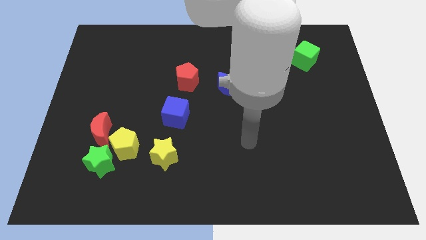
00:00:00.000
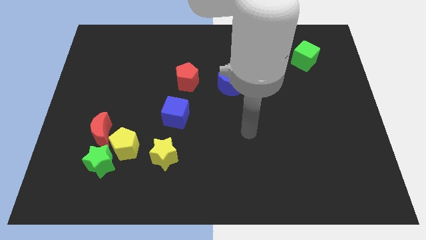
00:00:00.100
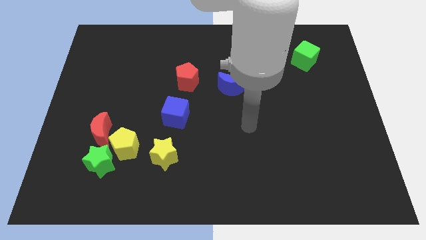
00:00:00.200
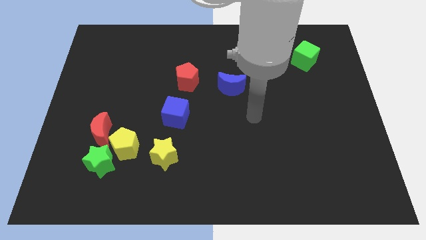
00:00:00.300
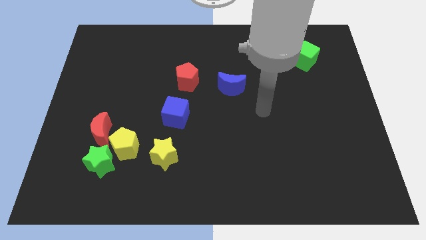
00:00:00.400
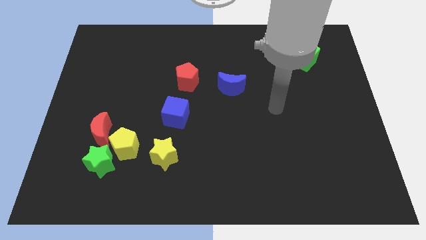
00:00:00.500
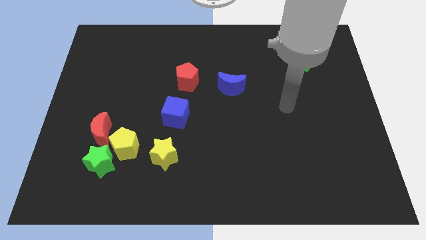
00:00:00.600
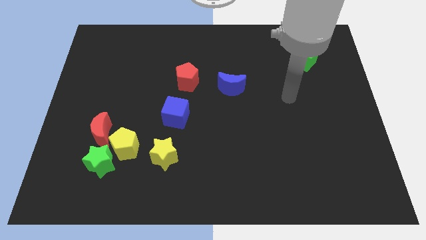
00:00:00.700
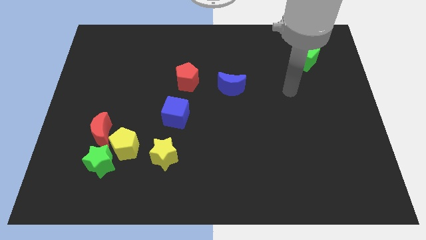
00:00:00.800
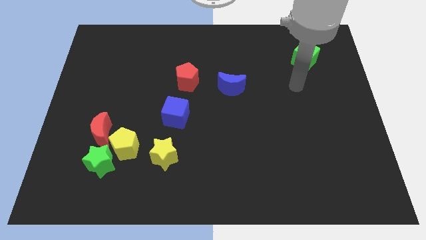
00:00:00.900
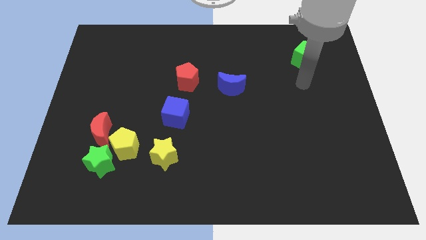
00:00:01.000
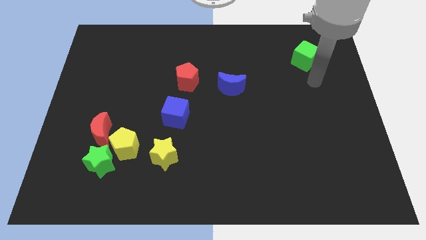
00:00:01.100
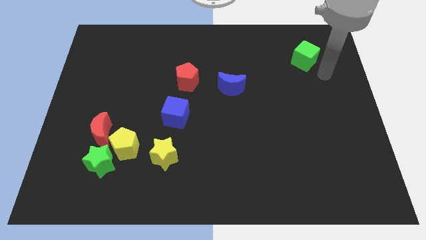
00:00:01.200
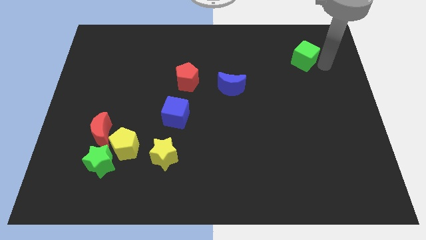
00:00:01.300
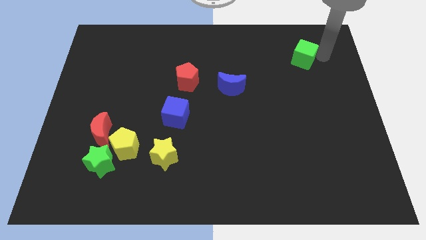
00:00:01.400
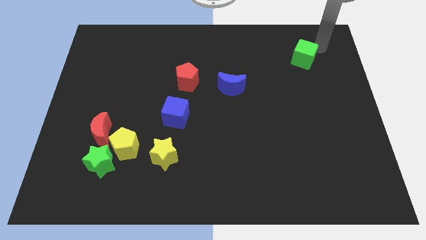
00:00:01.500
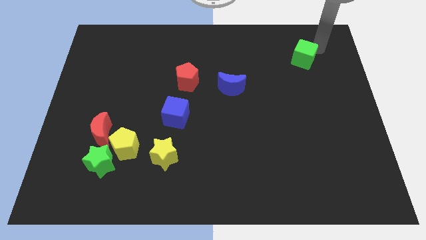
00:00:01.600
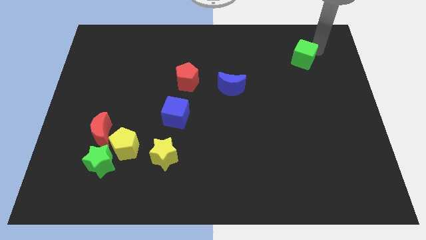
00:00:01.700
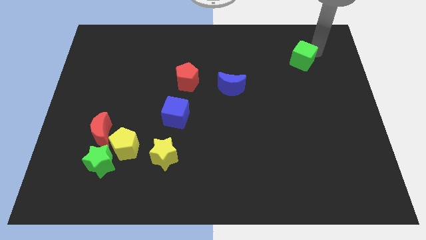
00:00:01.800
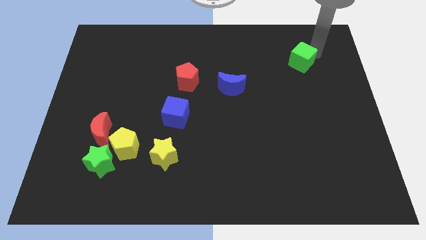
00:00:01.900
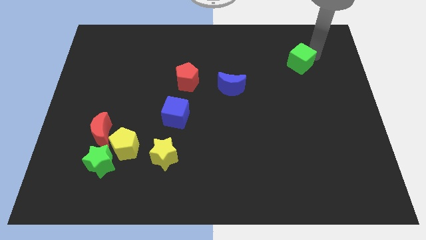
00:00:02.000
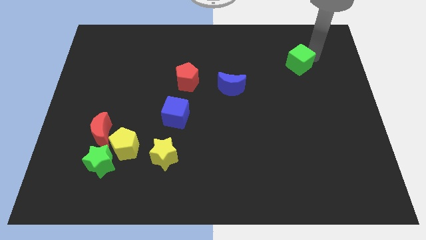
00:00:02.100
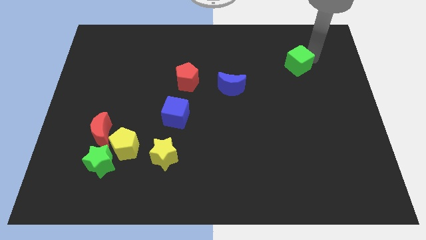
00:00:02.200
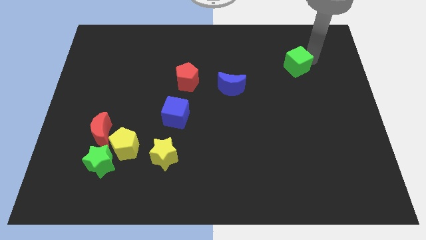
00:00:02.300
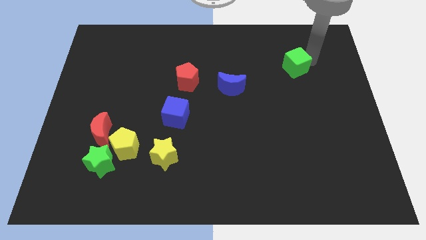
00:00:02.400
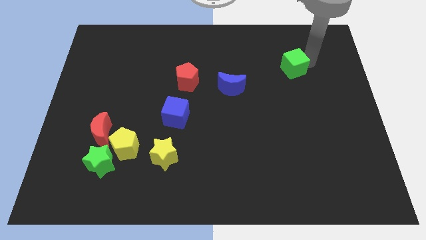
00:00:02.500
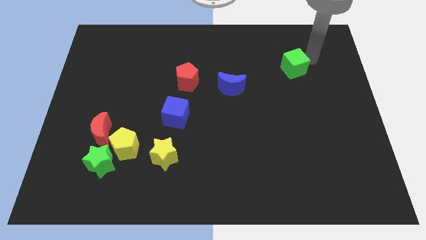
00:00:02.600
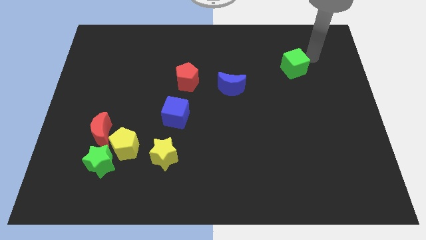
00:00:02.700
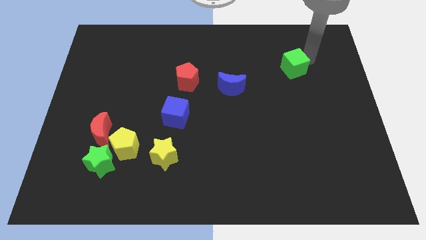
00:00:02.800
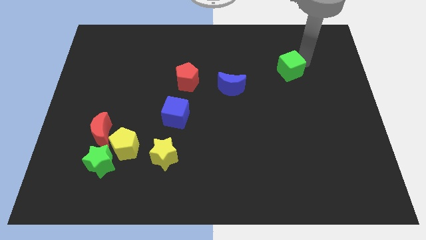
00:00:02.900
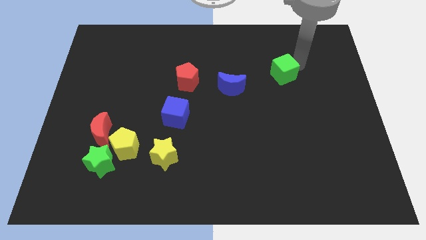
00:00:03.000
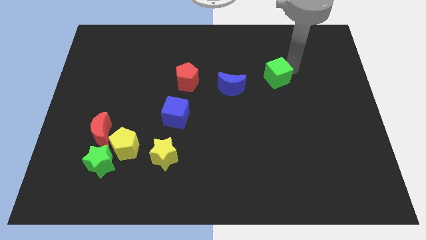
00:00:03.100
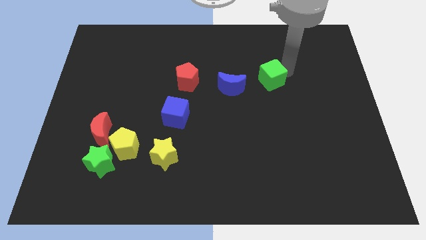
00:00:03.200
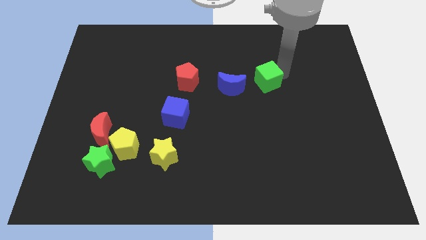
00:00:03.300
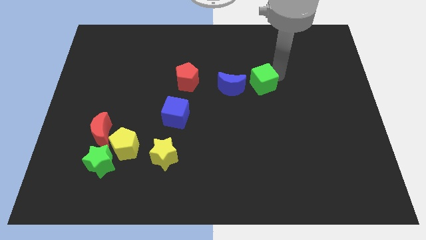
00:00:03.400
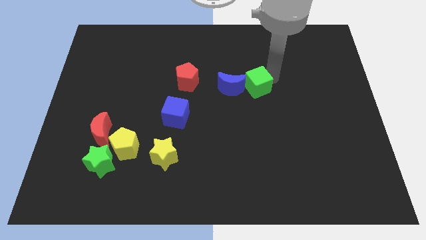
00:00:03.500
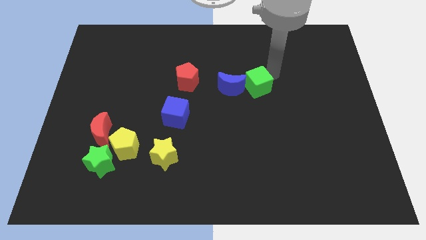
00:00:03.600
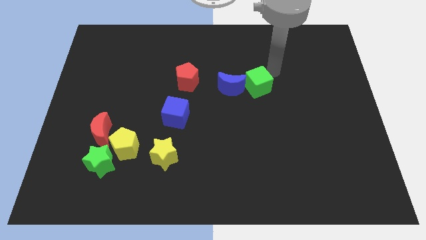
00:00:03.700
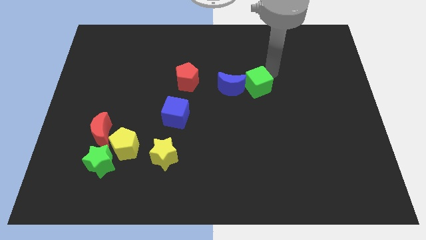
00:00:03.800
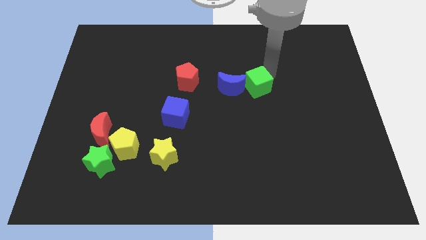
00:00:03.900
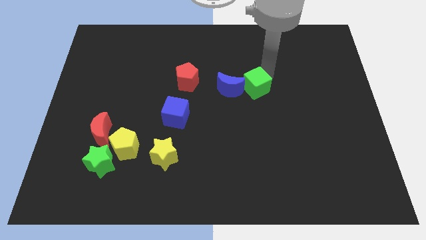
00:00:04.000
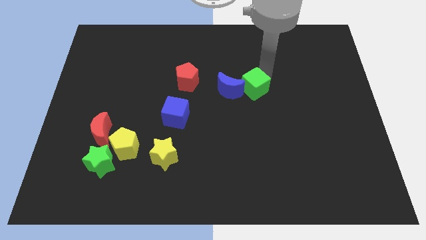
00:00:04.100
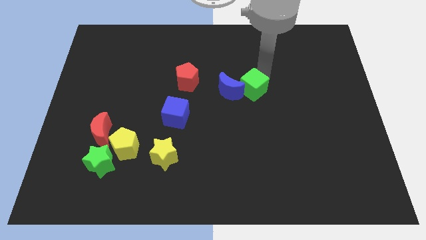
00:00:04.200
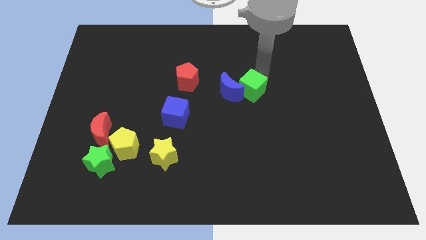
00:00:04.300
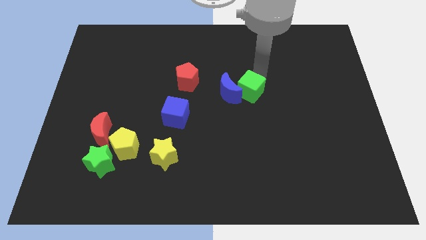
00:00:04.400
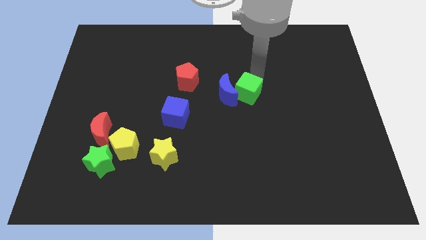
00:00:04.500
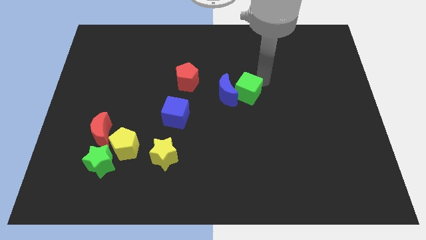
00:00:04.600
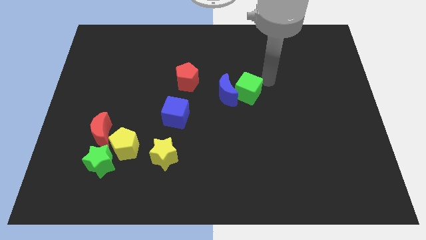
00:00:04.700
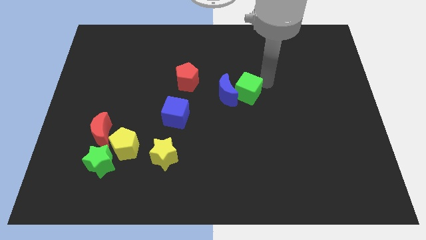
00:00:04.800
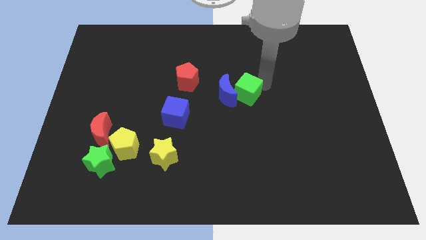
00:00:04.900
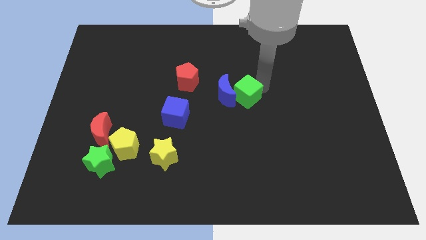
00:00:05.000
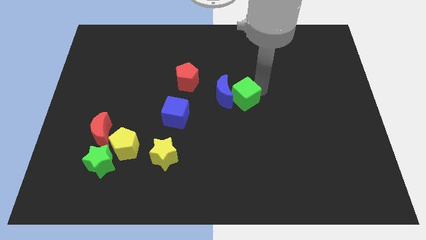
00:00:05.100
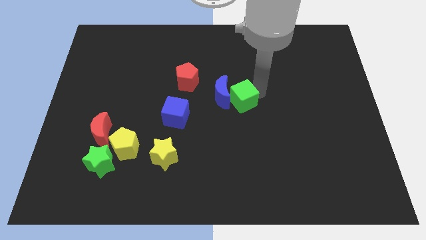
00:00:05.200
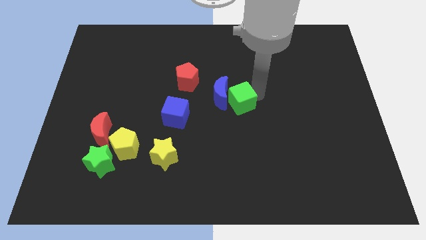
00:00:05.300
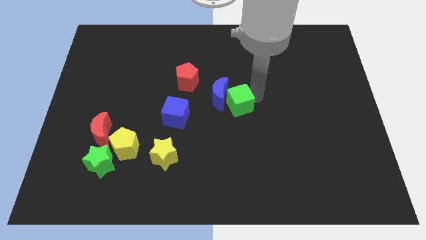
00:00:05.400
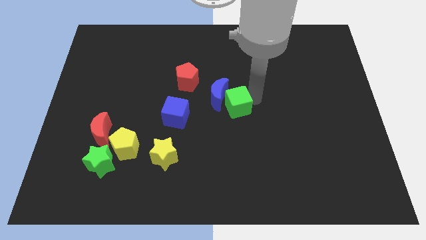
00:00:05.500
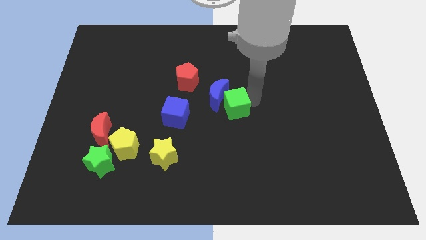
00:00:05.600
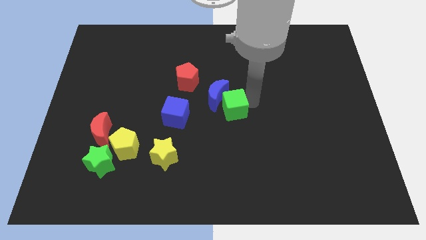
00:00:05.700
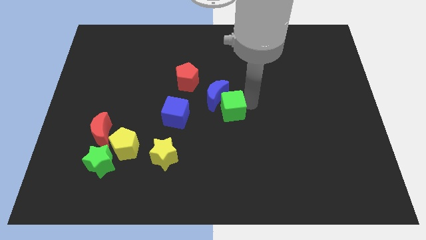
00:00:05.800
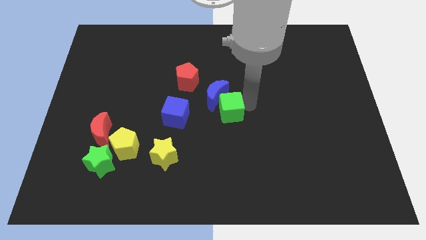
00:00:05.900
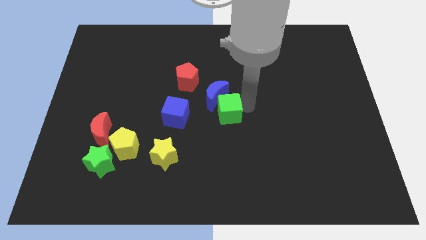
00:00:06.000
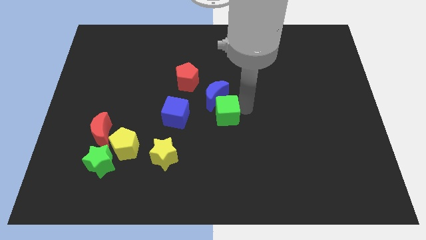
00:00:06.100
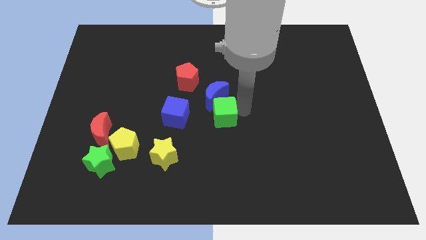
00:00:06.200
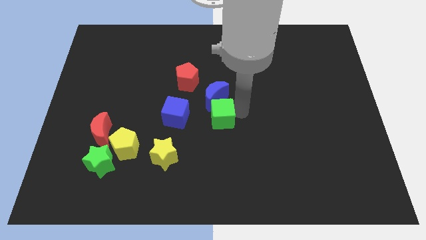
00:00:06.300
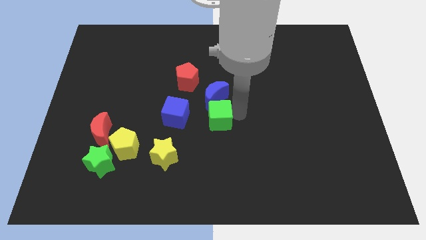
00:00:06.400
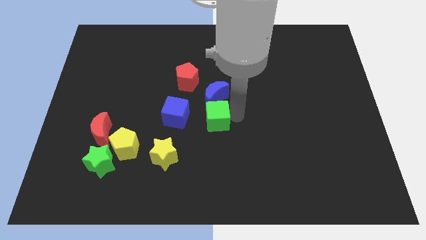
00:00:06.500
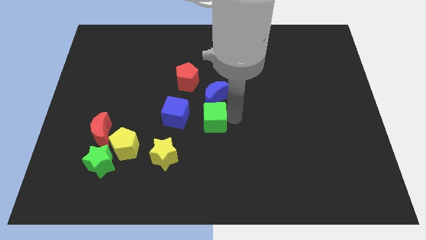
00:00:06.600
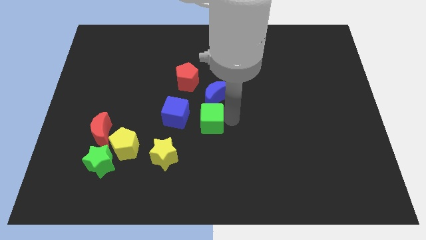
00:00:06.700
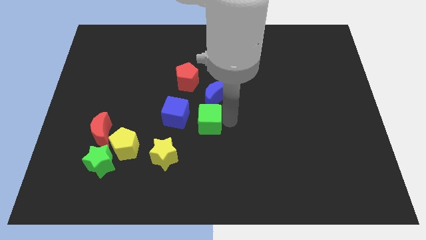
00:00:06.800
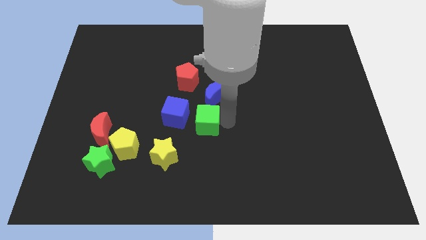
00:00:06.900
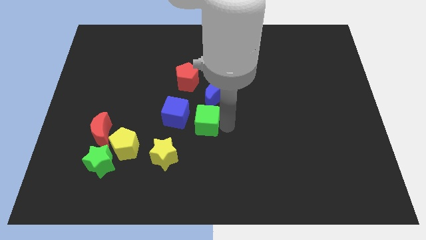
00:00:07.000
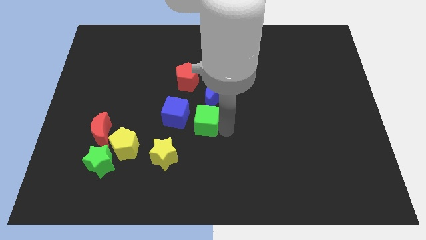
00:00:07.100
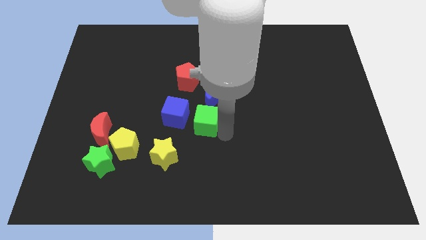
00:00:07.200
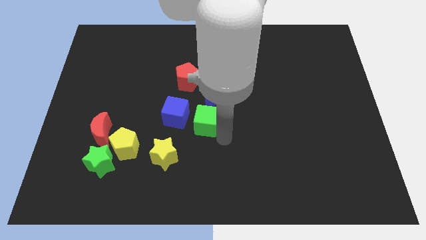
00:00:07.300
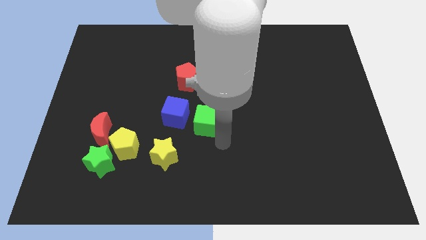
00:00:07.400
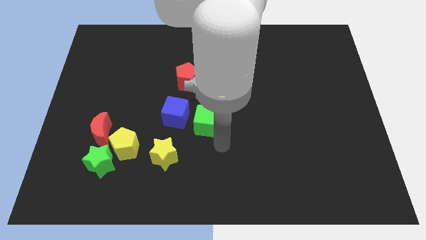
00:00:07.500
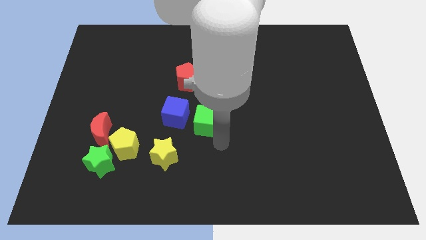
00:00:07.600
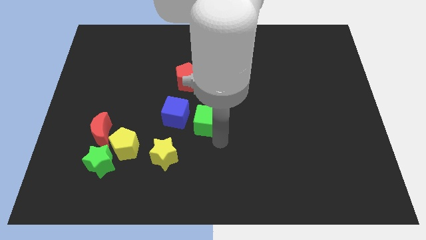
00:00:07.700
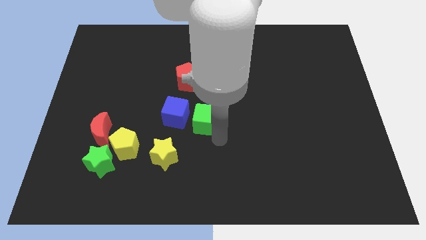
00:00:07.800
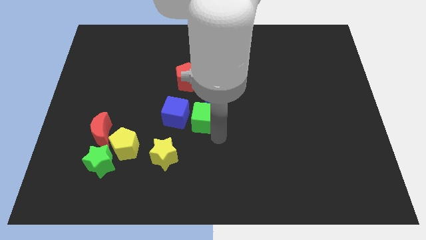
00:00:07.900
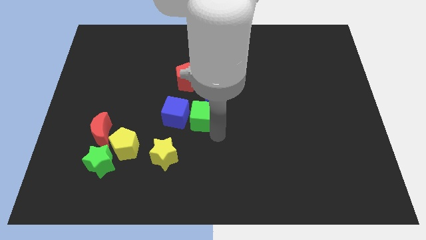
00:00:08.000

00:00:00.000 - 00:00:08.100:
slide the green cube close to the blue cube
